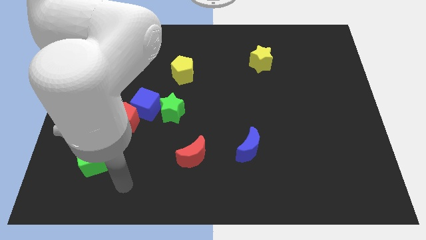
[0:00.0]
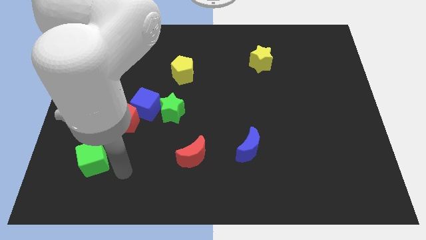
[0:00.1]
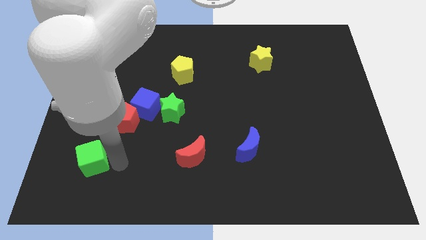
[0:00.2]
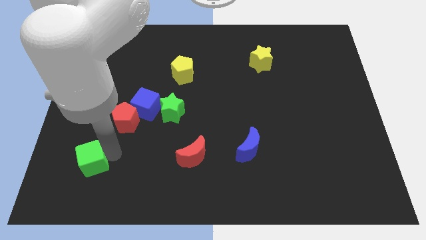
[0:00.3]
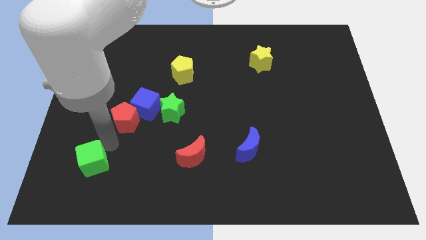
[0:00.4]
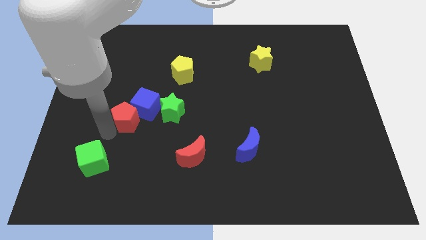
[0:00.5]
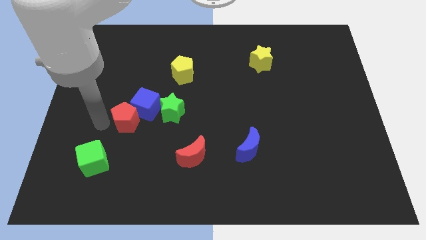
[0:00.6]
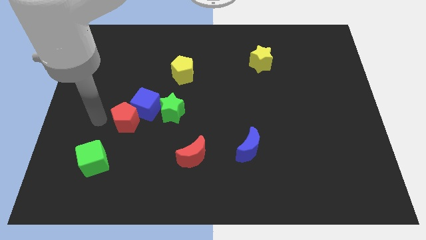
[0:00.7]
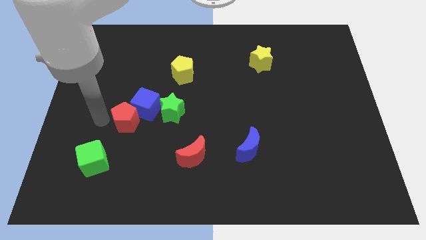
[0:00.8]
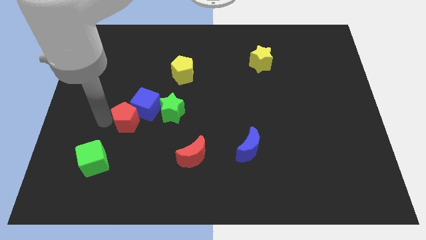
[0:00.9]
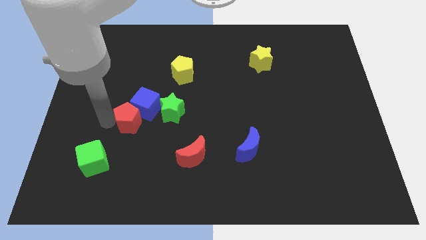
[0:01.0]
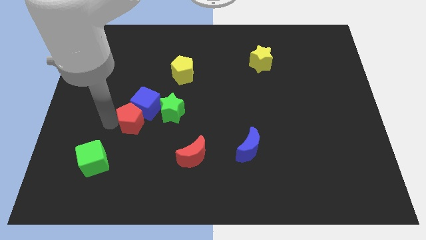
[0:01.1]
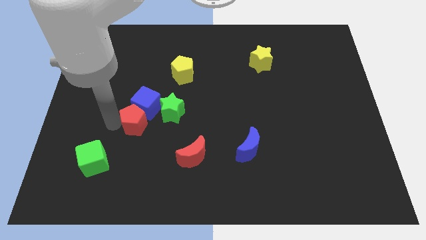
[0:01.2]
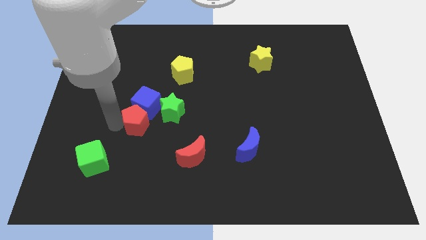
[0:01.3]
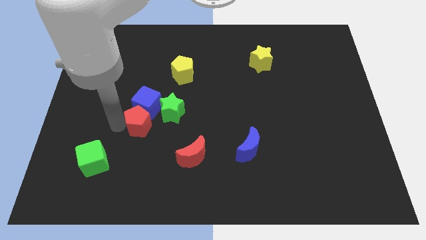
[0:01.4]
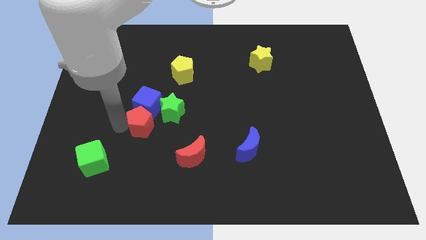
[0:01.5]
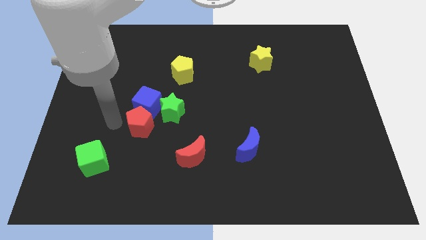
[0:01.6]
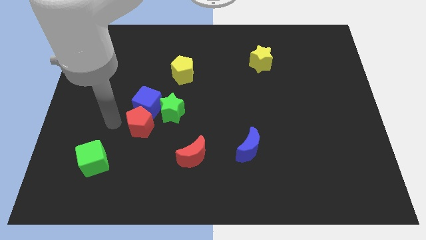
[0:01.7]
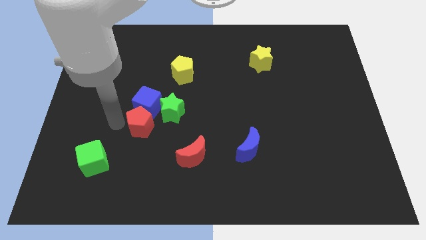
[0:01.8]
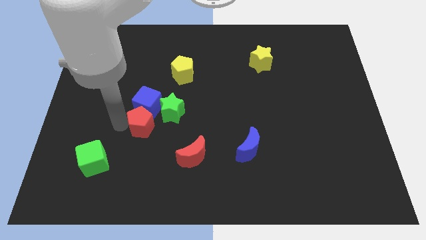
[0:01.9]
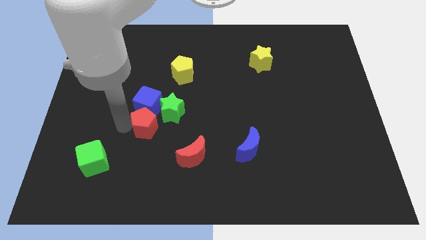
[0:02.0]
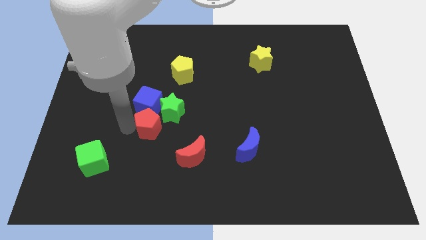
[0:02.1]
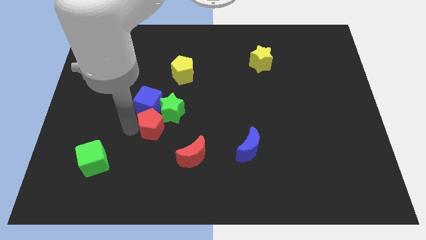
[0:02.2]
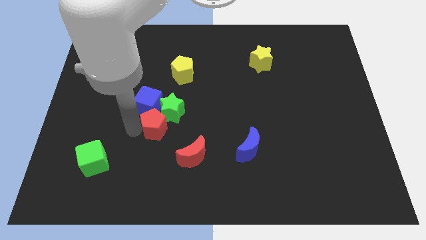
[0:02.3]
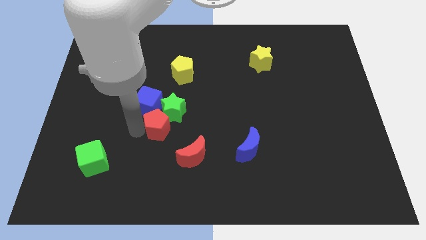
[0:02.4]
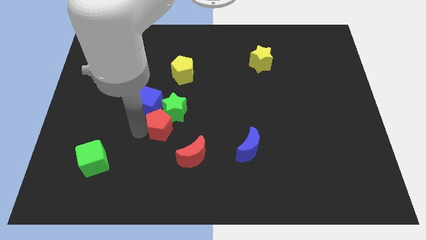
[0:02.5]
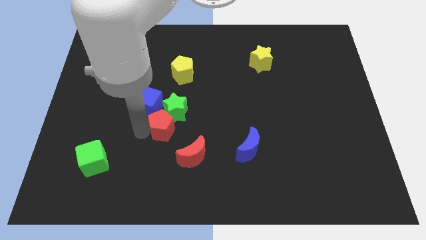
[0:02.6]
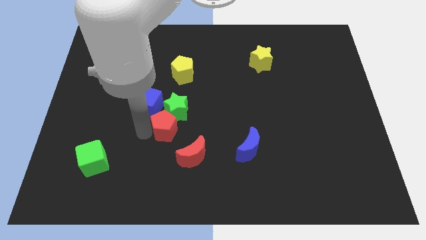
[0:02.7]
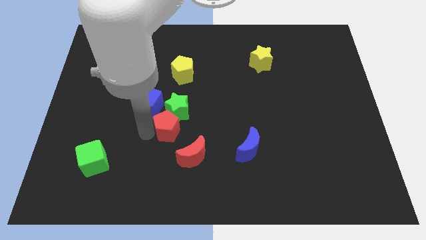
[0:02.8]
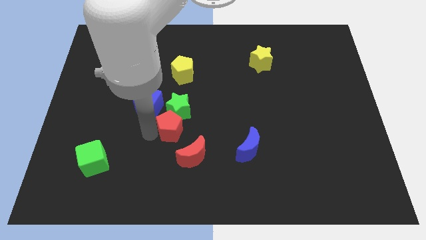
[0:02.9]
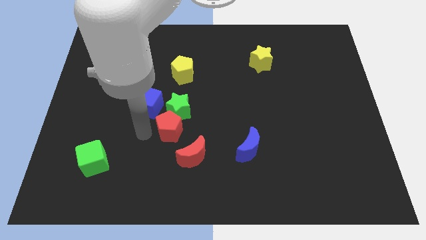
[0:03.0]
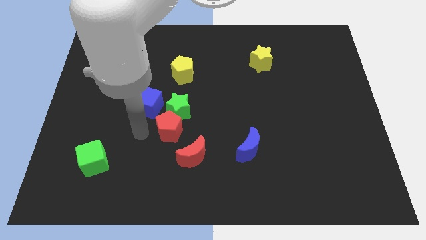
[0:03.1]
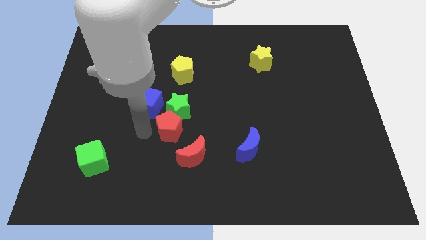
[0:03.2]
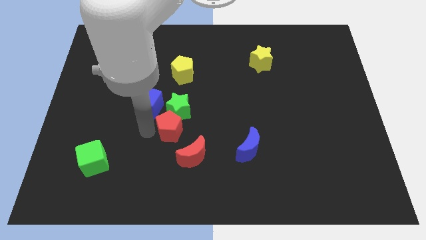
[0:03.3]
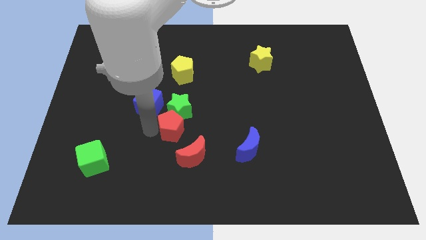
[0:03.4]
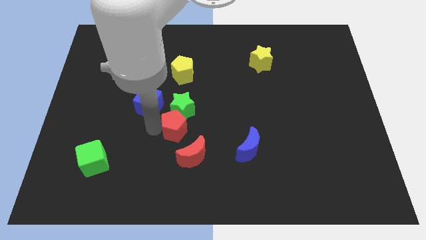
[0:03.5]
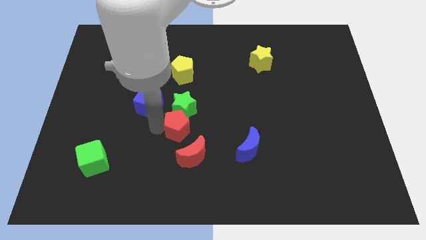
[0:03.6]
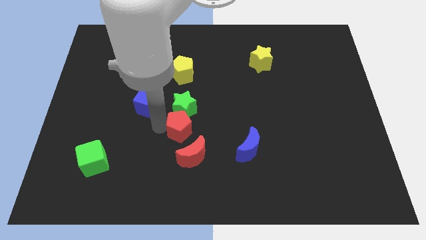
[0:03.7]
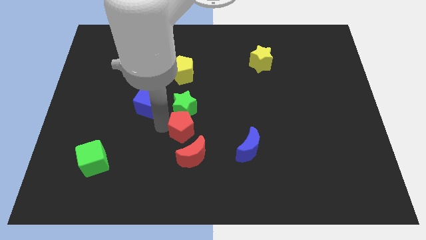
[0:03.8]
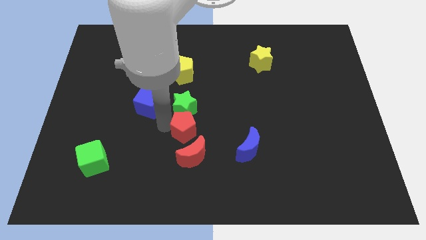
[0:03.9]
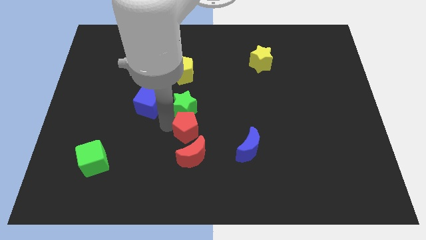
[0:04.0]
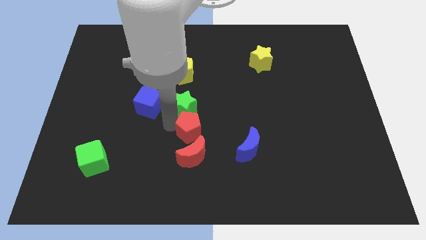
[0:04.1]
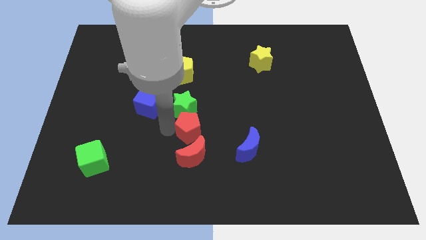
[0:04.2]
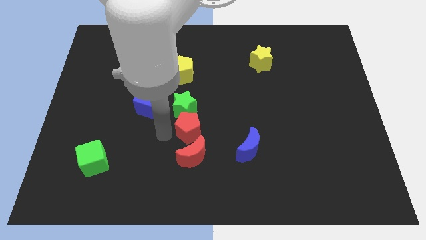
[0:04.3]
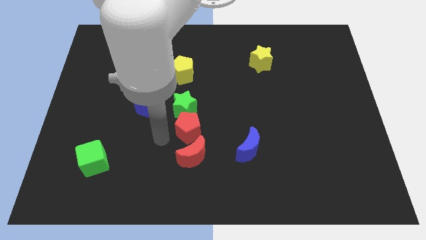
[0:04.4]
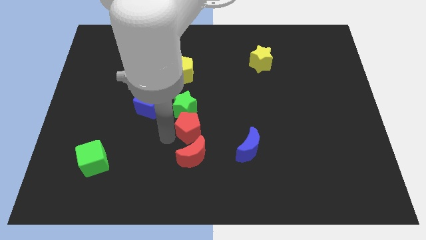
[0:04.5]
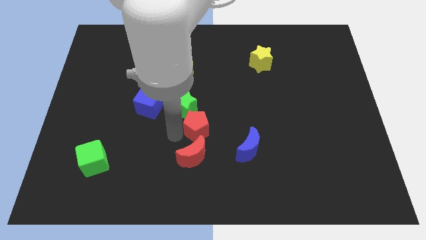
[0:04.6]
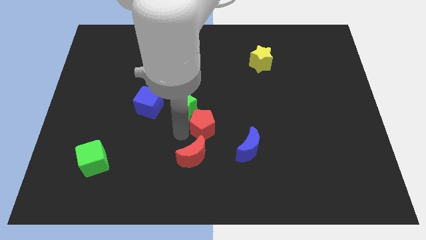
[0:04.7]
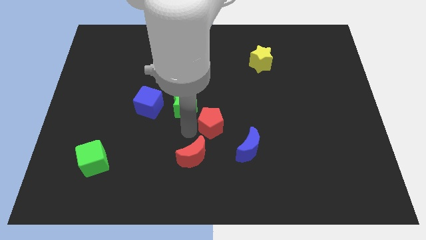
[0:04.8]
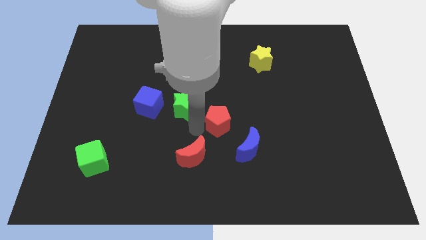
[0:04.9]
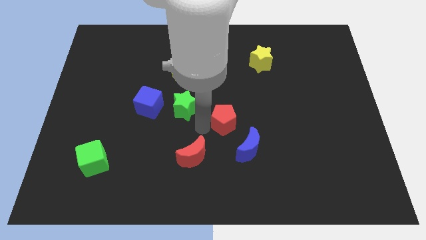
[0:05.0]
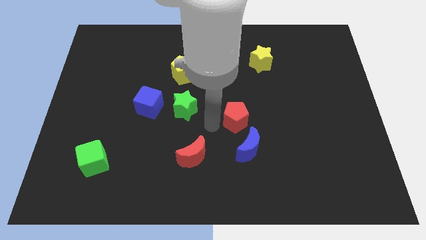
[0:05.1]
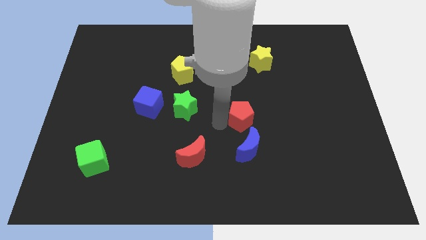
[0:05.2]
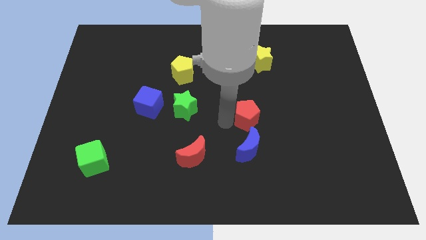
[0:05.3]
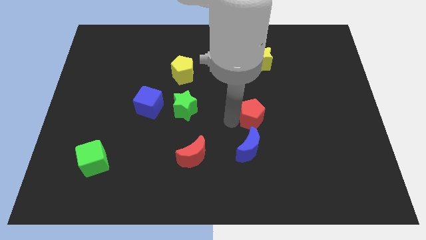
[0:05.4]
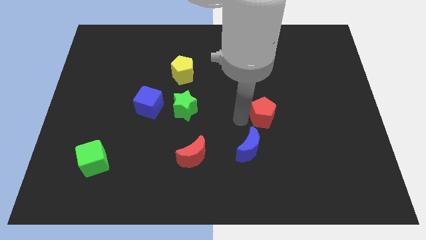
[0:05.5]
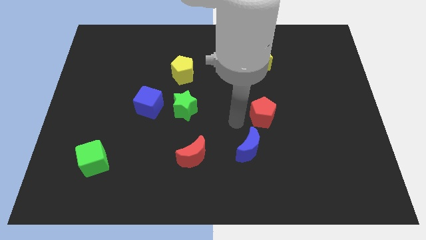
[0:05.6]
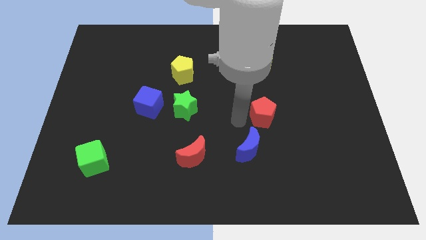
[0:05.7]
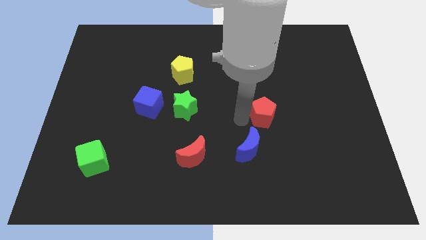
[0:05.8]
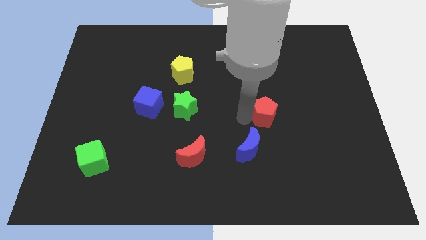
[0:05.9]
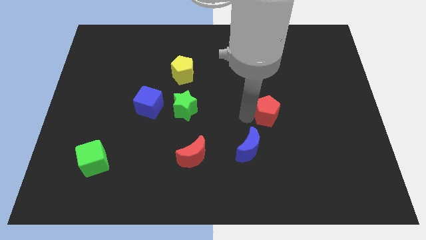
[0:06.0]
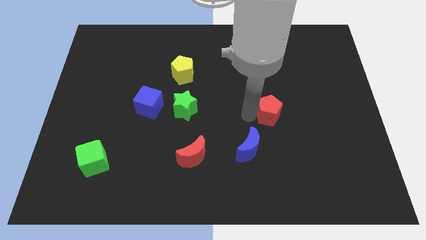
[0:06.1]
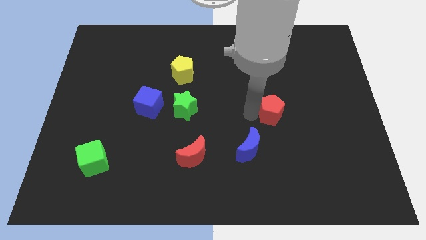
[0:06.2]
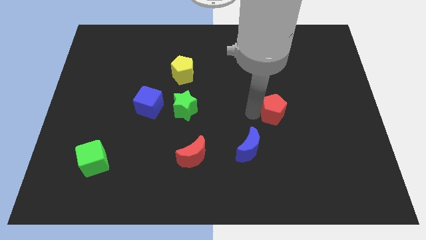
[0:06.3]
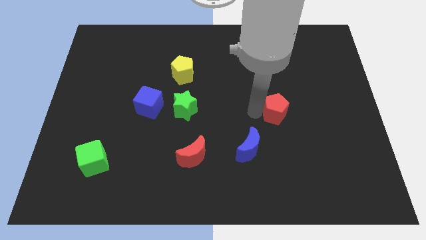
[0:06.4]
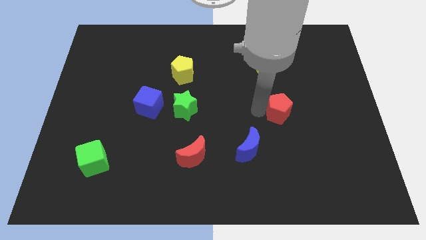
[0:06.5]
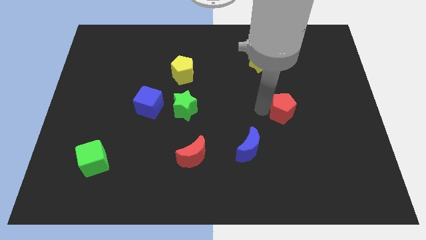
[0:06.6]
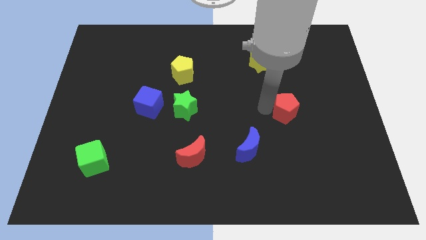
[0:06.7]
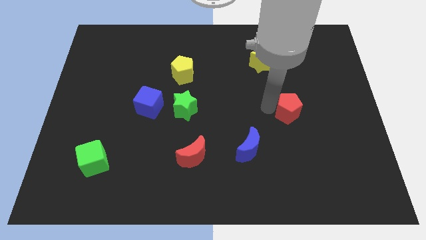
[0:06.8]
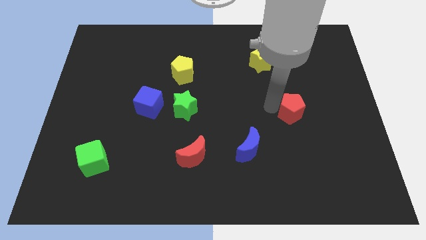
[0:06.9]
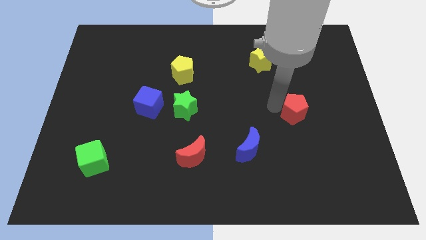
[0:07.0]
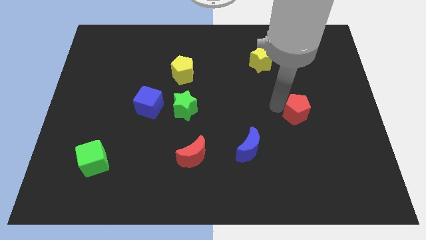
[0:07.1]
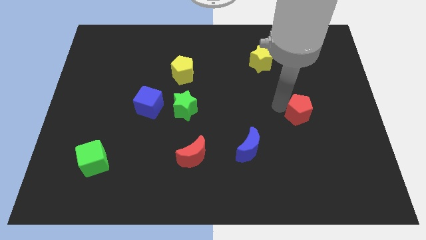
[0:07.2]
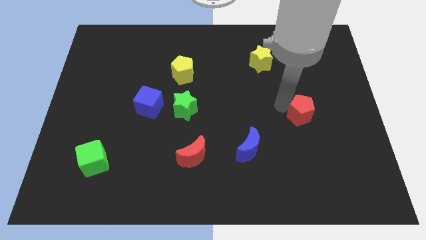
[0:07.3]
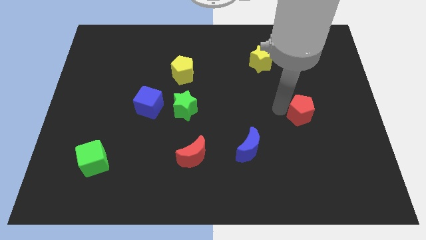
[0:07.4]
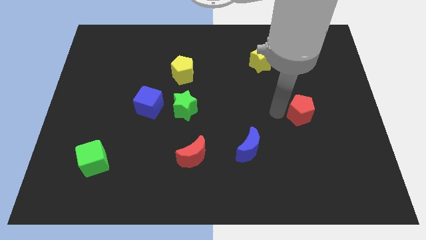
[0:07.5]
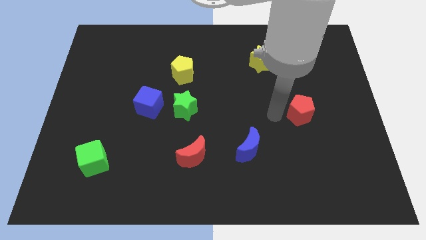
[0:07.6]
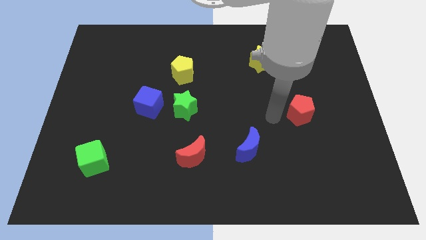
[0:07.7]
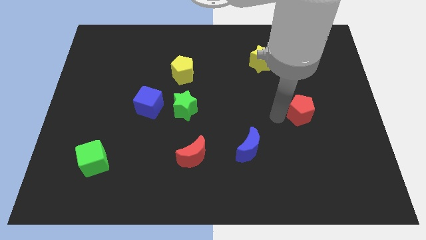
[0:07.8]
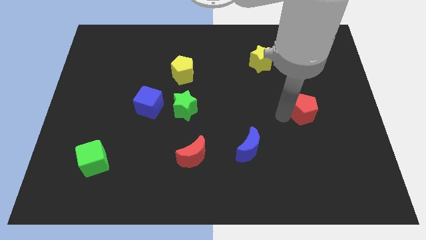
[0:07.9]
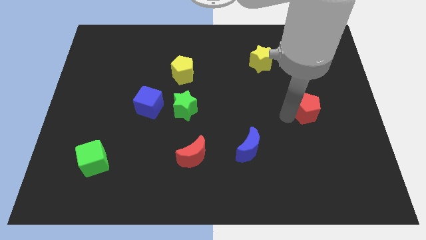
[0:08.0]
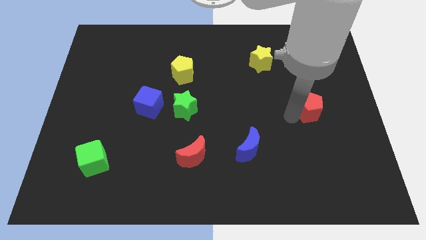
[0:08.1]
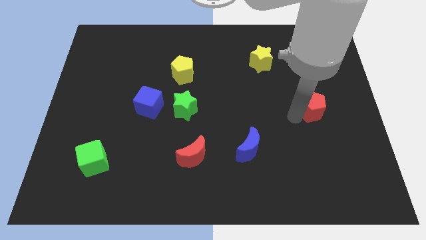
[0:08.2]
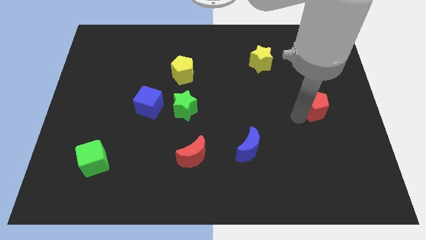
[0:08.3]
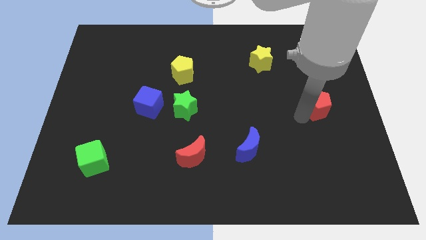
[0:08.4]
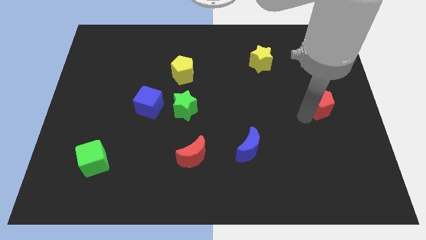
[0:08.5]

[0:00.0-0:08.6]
move the red pentagon to the right side of the board
